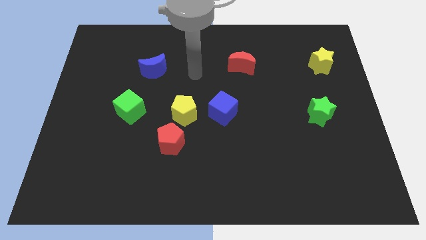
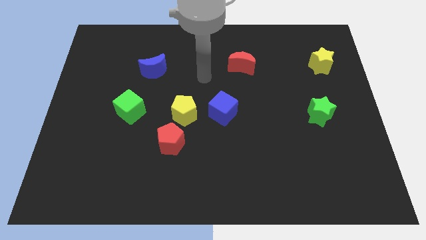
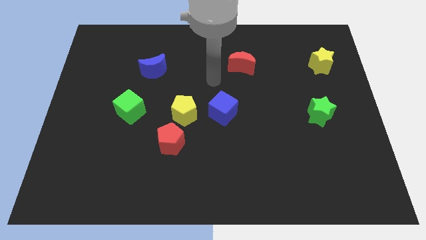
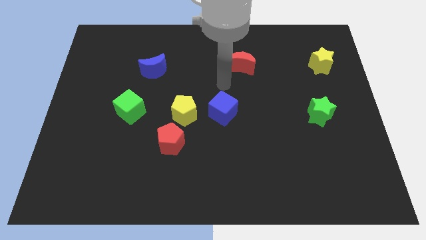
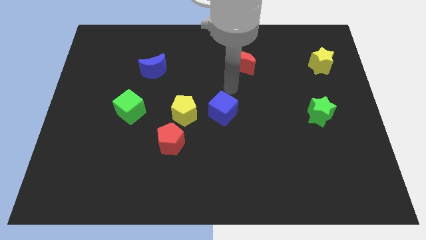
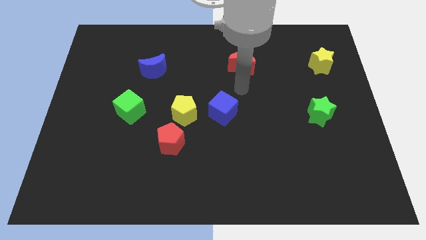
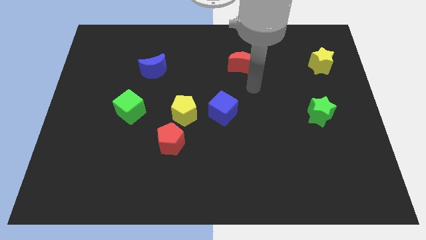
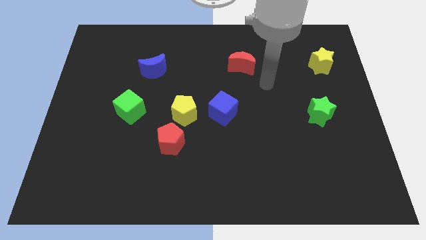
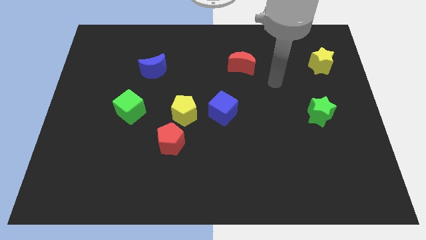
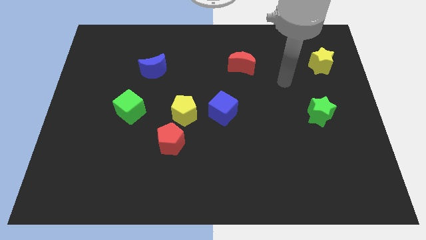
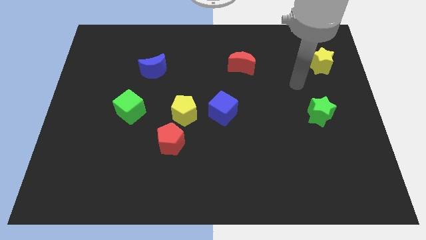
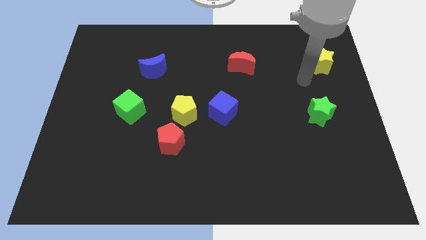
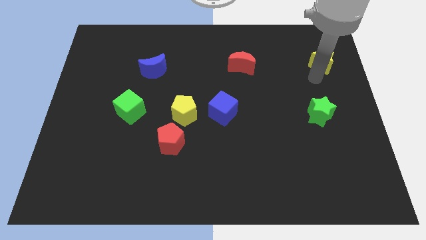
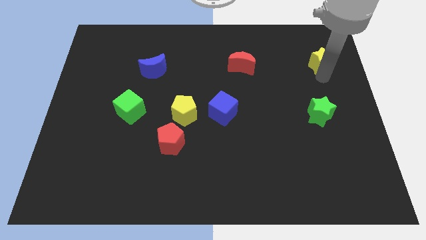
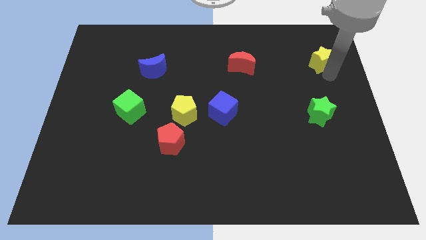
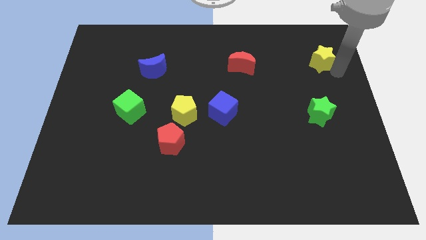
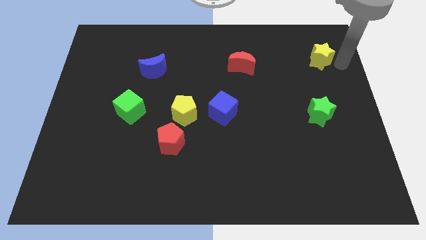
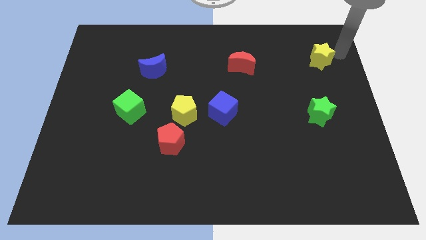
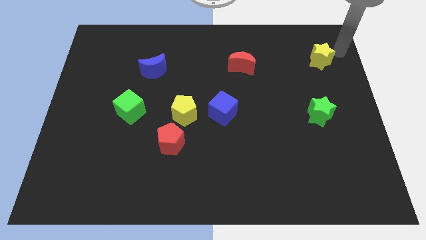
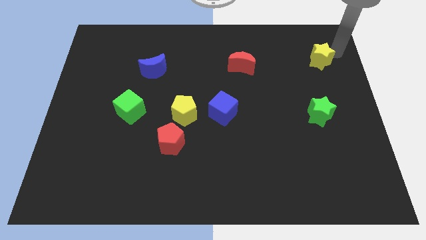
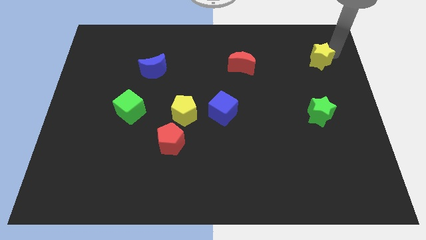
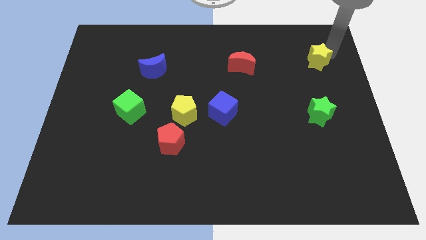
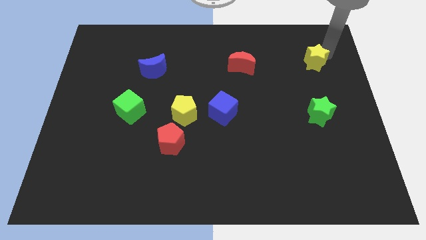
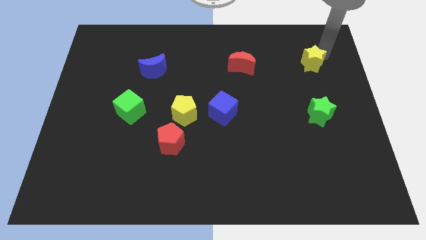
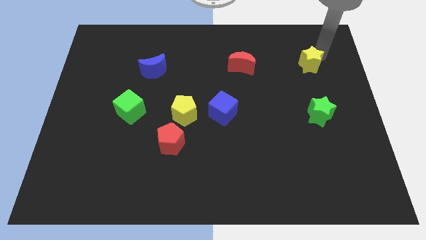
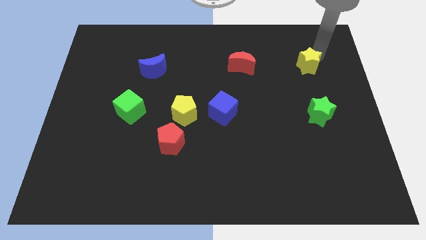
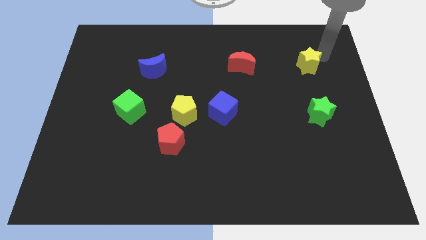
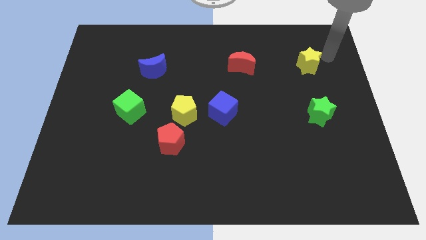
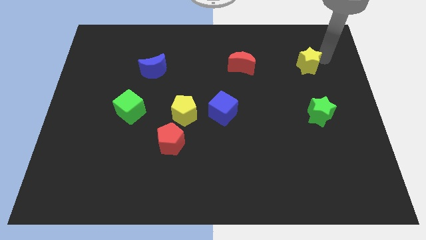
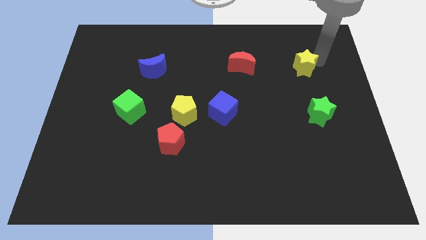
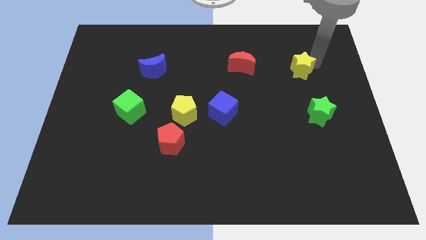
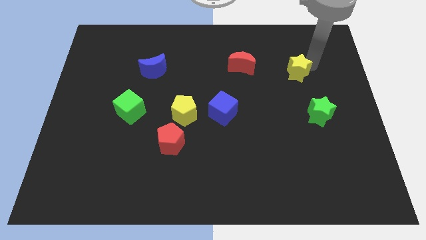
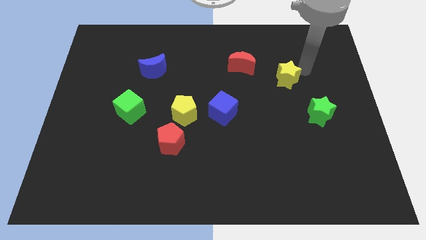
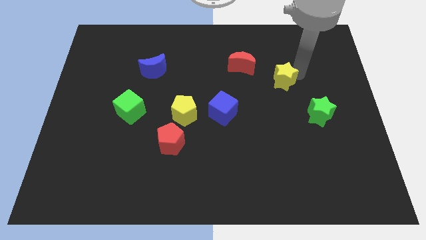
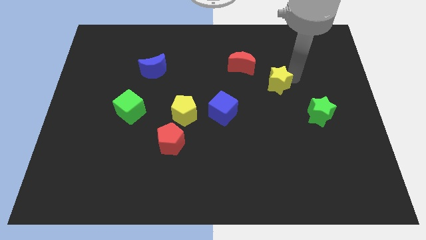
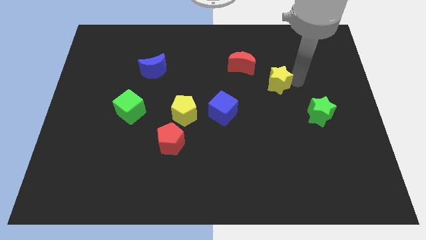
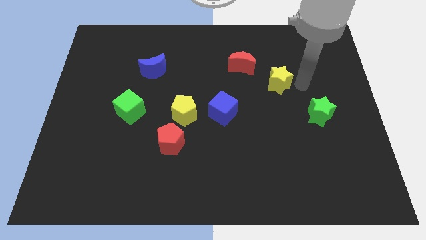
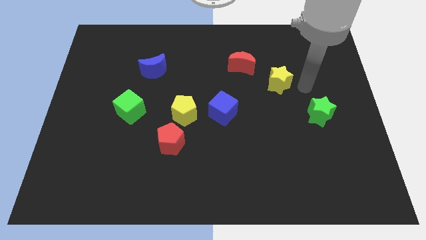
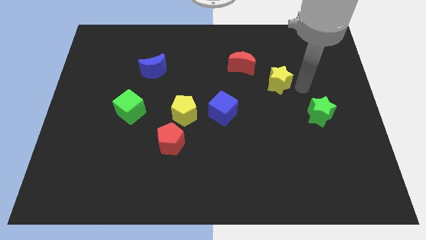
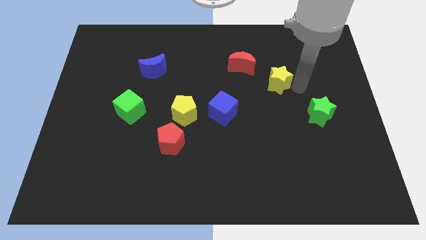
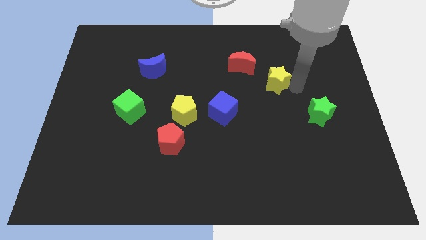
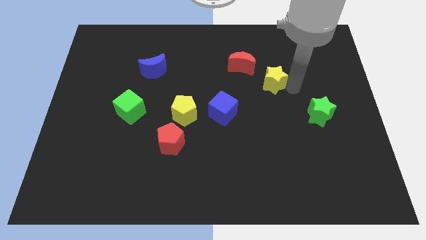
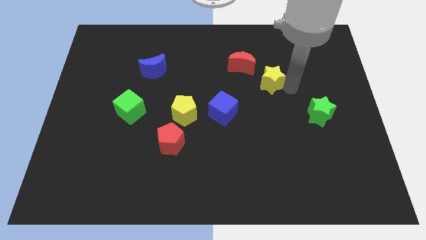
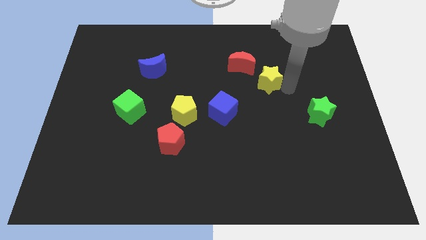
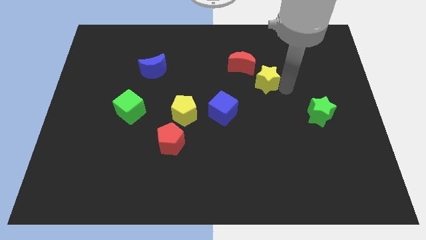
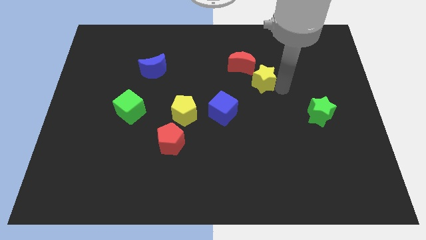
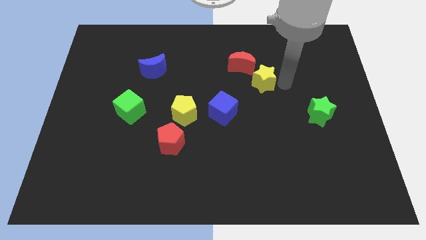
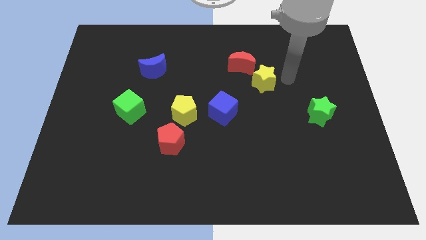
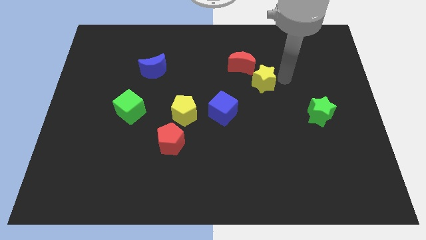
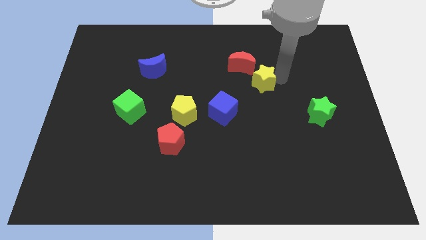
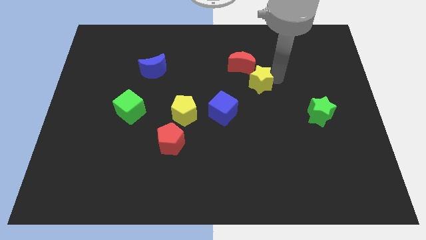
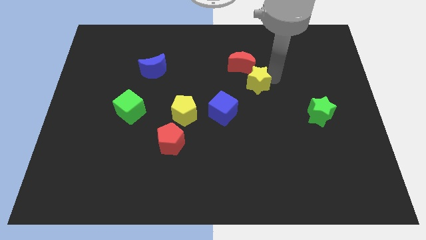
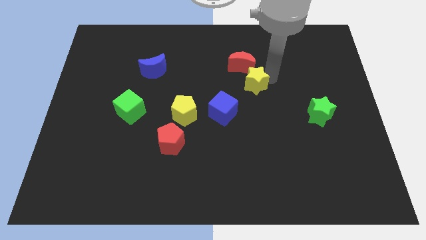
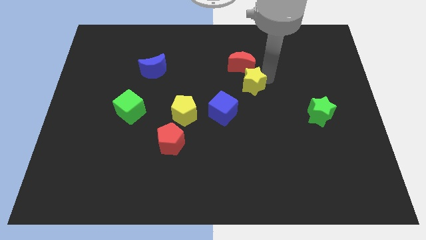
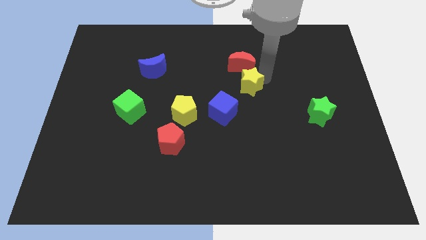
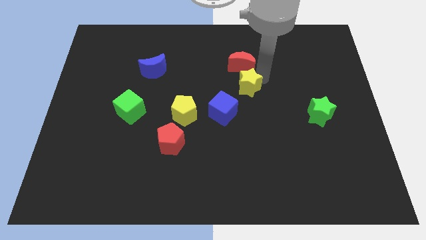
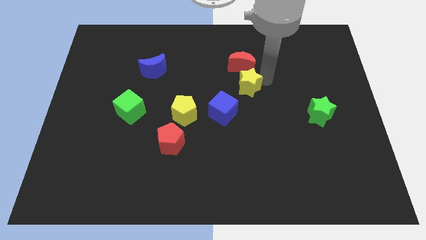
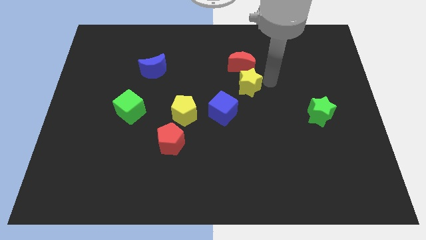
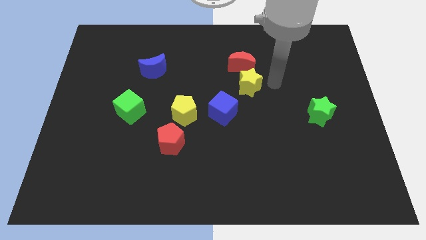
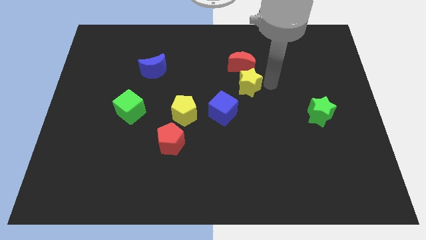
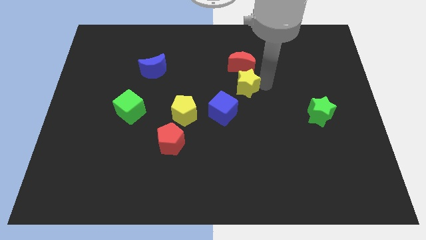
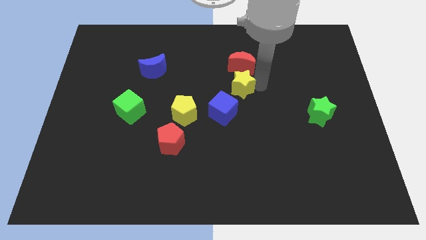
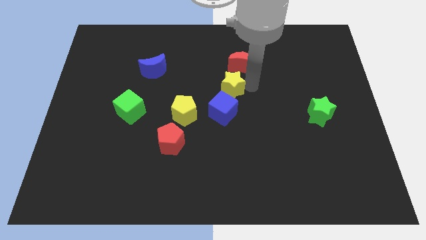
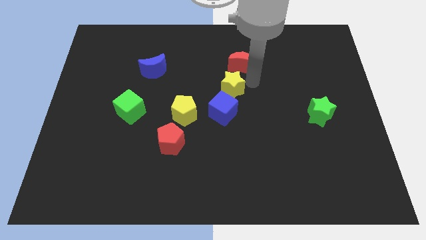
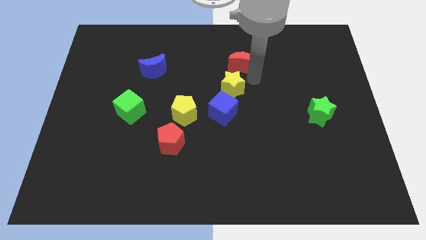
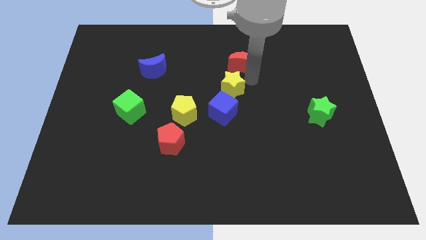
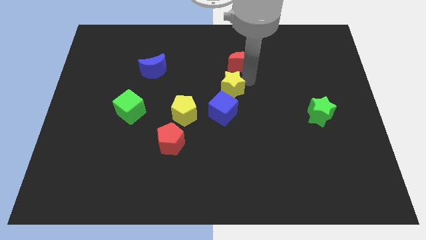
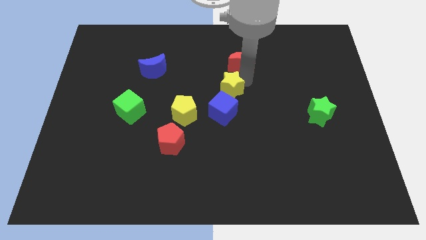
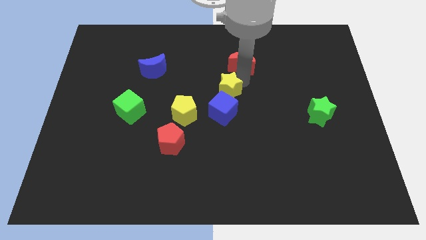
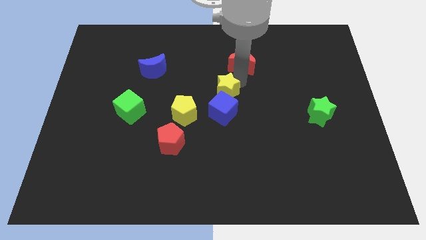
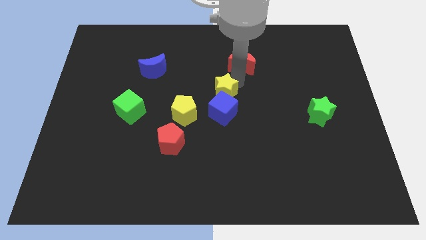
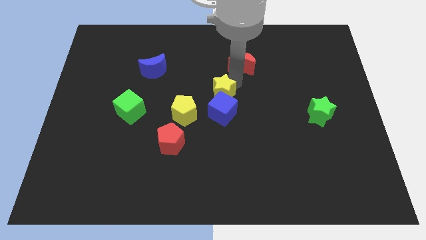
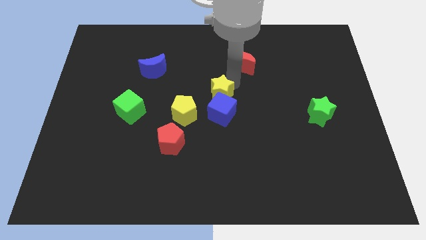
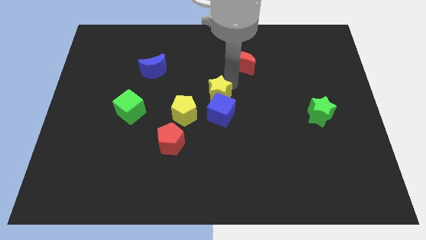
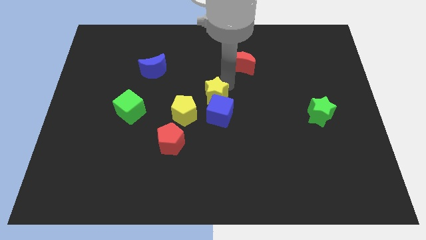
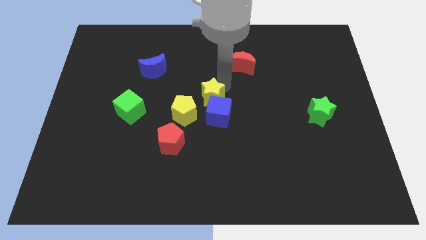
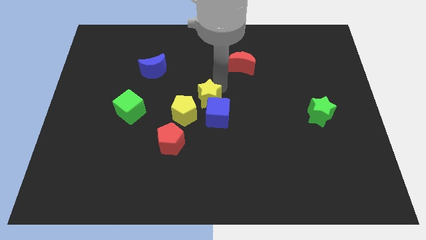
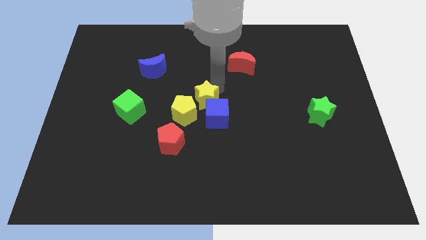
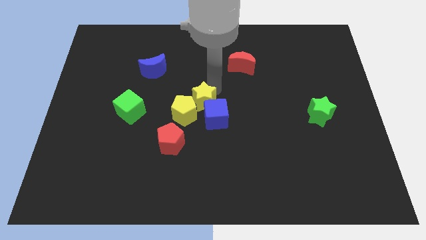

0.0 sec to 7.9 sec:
move the yellow star close to the yellow pentagon
